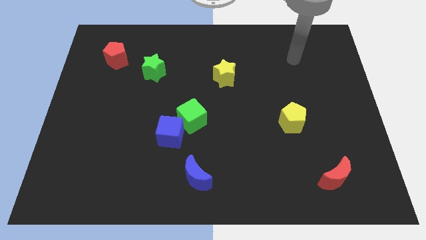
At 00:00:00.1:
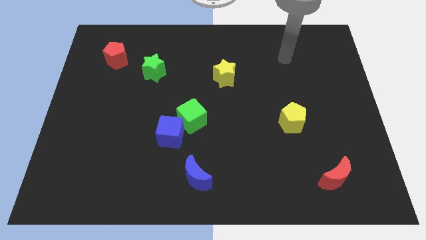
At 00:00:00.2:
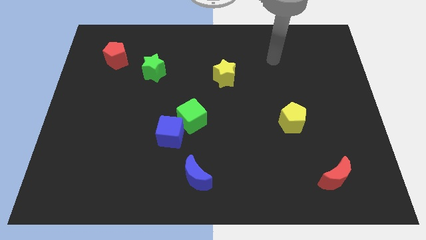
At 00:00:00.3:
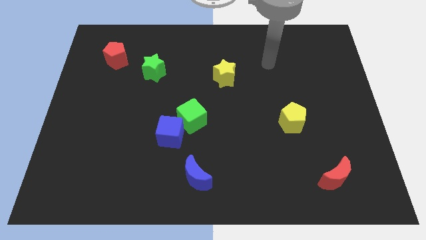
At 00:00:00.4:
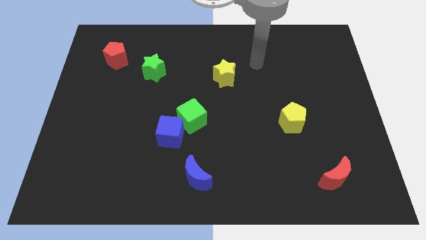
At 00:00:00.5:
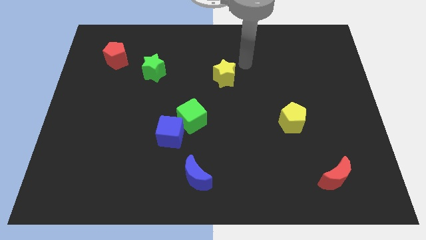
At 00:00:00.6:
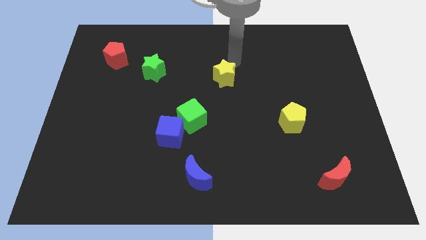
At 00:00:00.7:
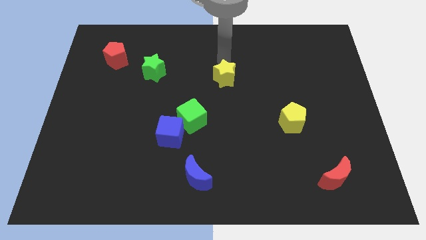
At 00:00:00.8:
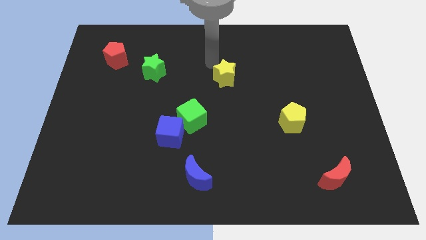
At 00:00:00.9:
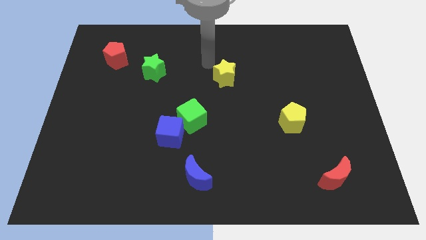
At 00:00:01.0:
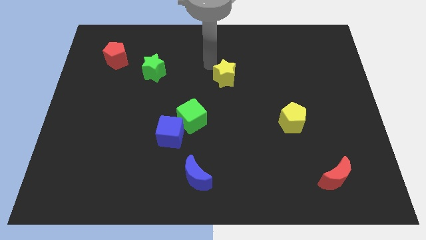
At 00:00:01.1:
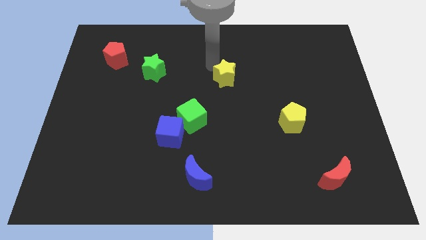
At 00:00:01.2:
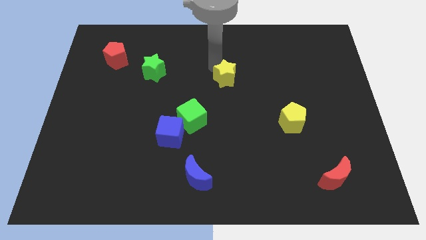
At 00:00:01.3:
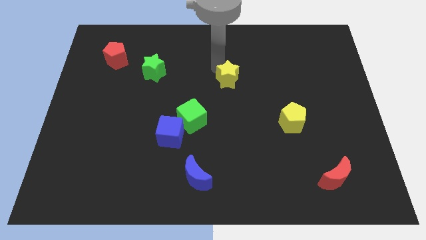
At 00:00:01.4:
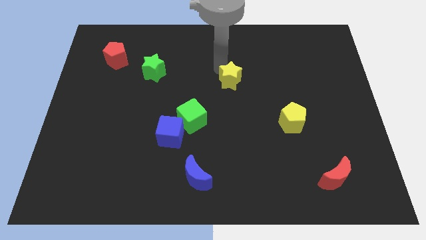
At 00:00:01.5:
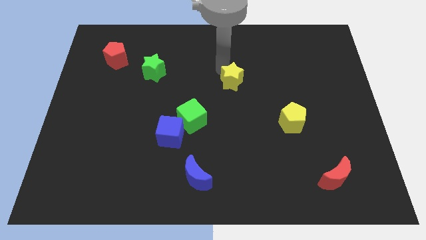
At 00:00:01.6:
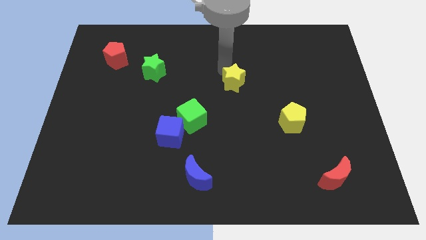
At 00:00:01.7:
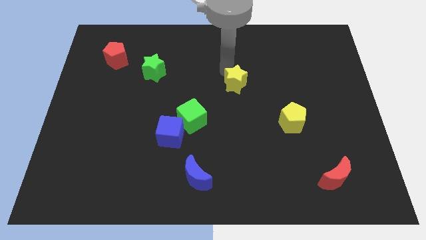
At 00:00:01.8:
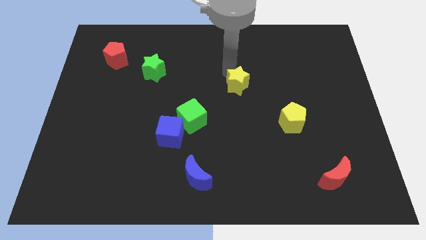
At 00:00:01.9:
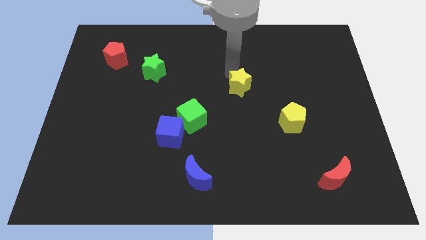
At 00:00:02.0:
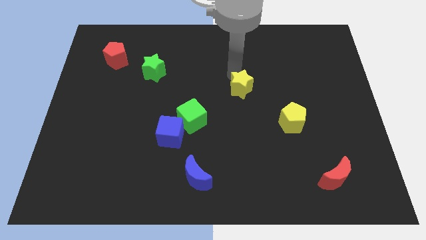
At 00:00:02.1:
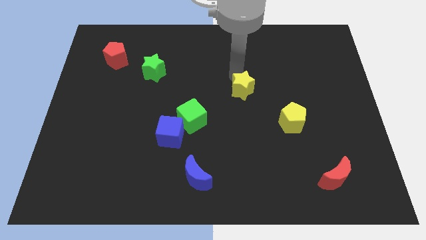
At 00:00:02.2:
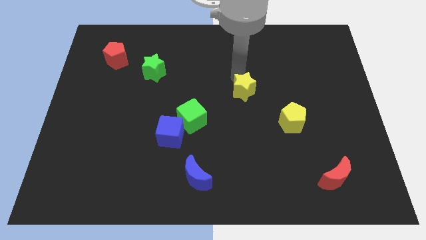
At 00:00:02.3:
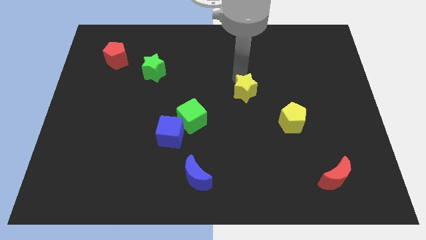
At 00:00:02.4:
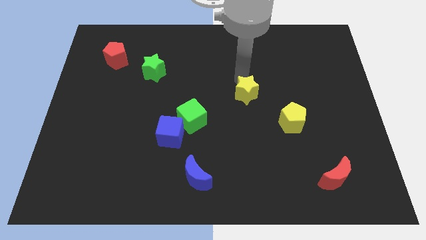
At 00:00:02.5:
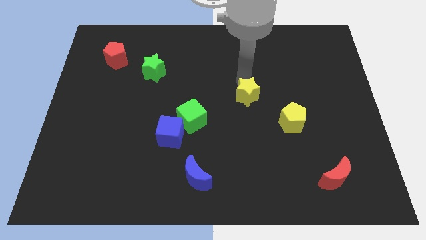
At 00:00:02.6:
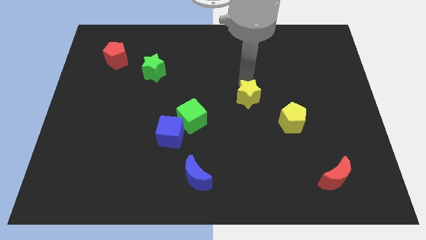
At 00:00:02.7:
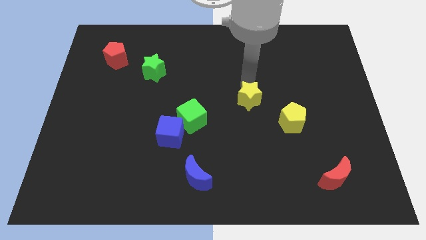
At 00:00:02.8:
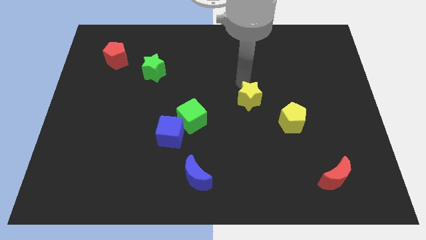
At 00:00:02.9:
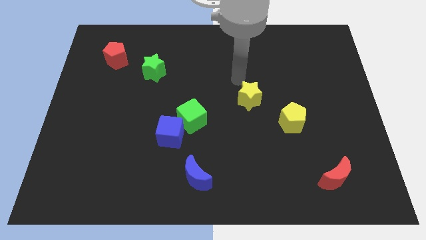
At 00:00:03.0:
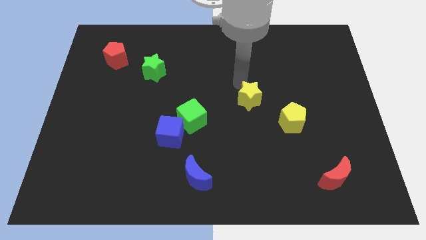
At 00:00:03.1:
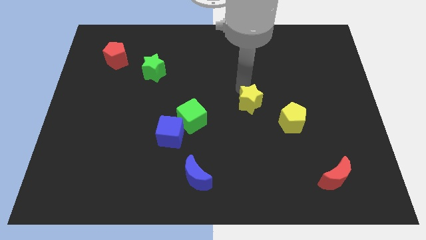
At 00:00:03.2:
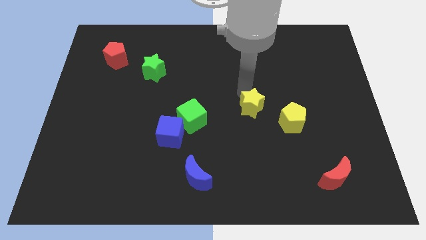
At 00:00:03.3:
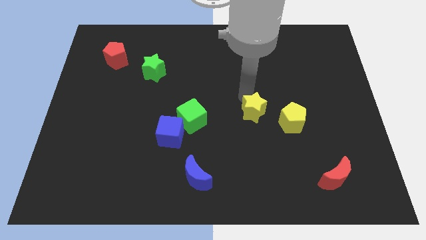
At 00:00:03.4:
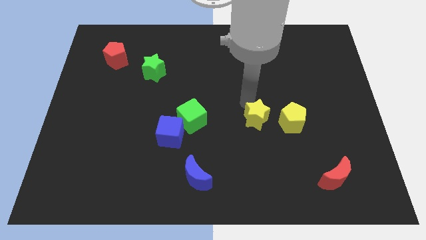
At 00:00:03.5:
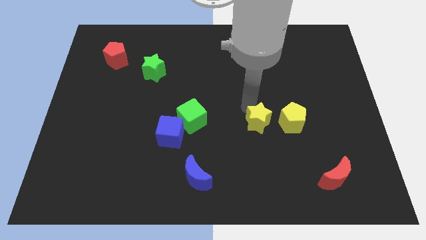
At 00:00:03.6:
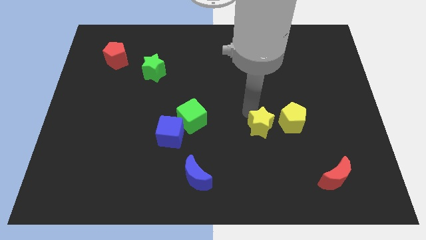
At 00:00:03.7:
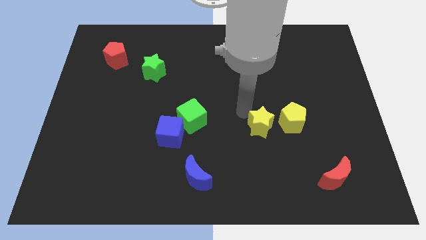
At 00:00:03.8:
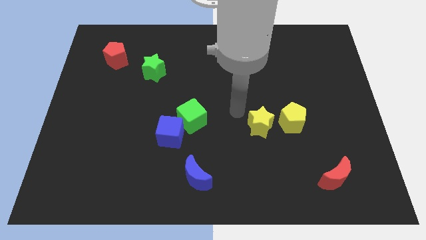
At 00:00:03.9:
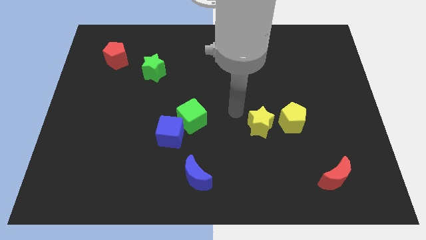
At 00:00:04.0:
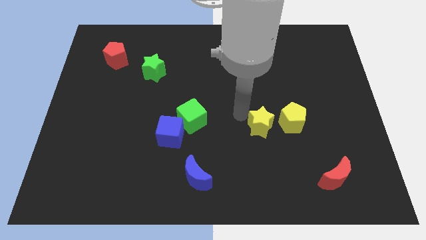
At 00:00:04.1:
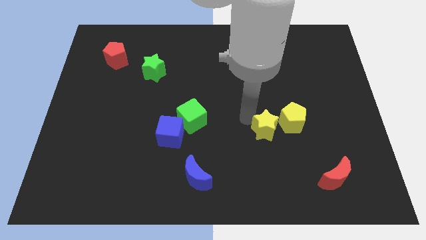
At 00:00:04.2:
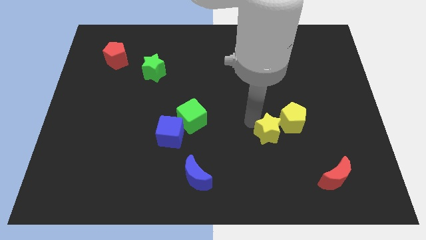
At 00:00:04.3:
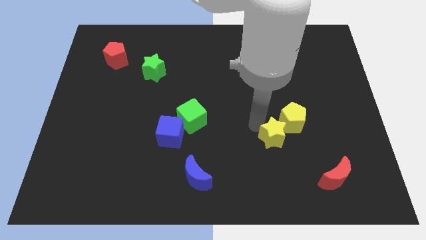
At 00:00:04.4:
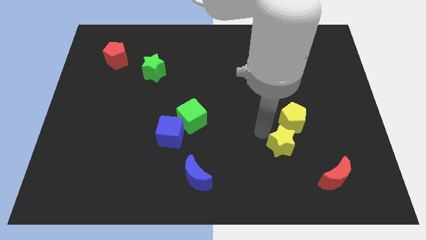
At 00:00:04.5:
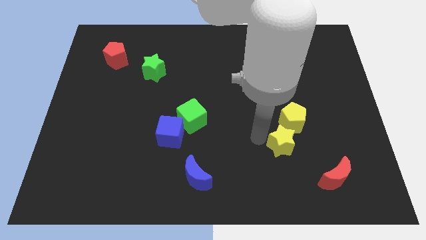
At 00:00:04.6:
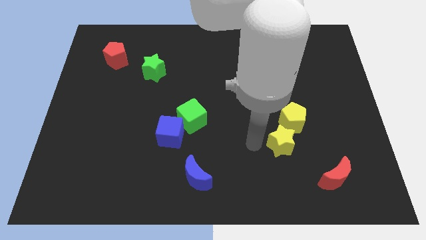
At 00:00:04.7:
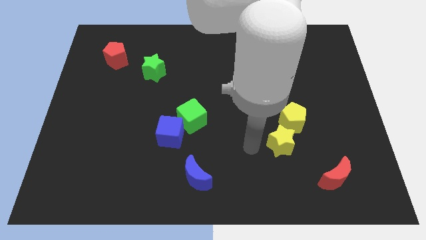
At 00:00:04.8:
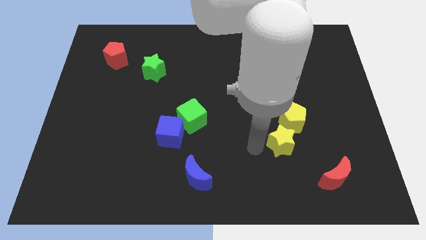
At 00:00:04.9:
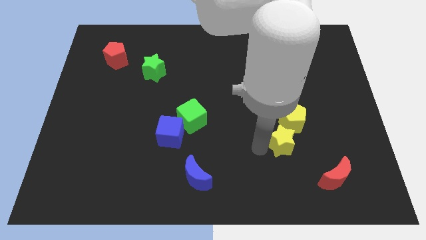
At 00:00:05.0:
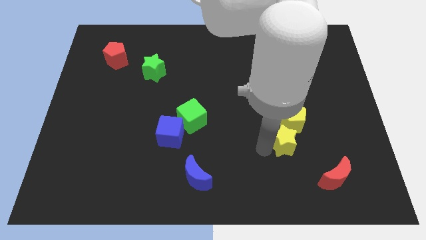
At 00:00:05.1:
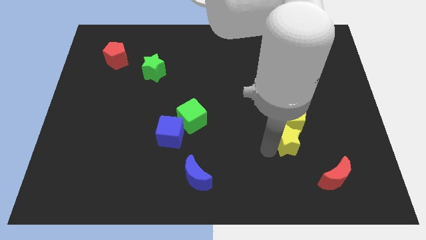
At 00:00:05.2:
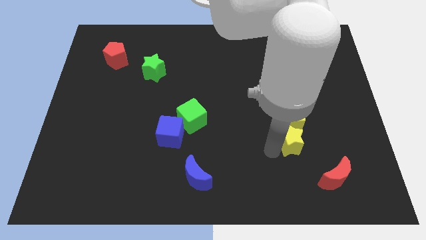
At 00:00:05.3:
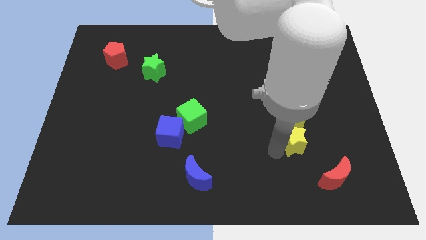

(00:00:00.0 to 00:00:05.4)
put the yellow star to the bottom right side of the yellow pentagon
